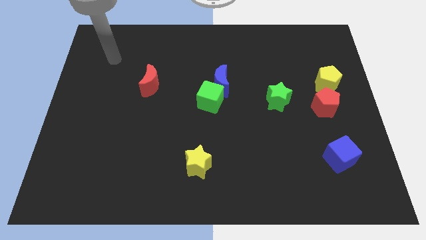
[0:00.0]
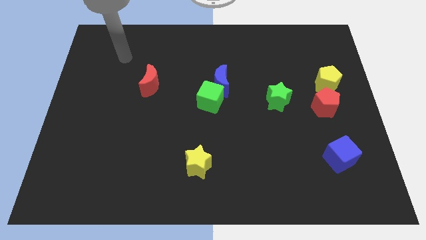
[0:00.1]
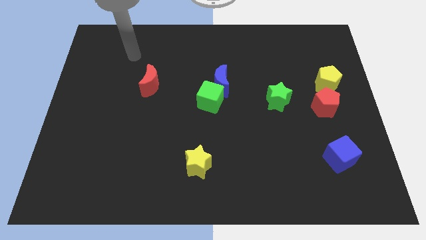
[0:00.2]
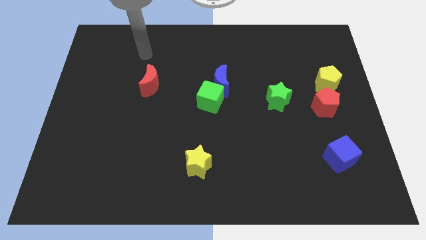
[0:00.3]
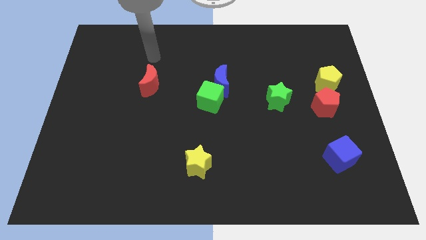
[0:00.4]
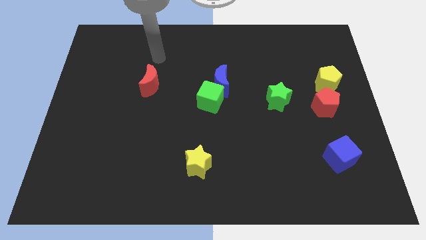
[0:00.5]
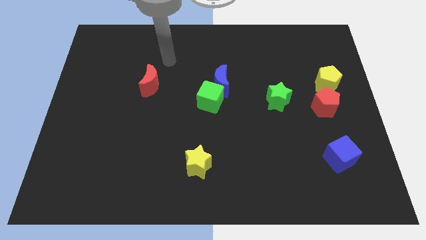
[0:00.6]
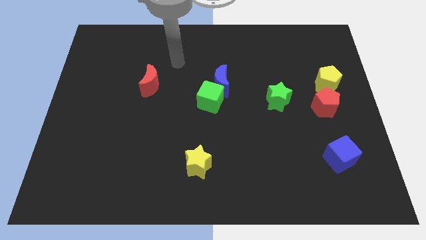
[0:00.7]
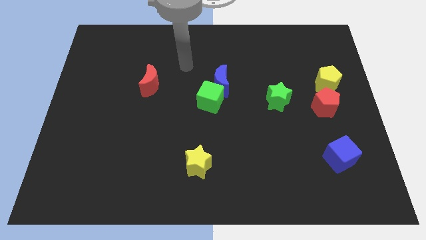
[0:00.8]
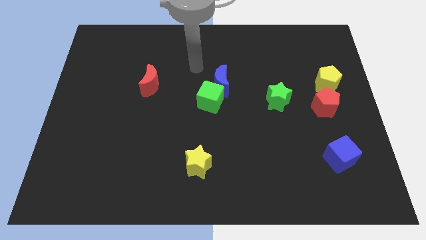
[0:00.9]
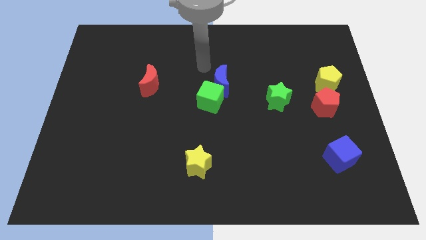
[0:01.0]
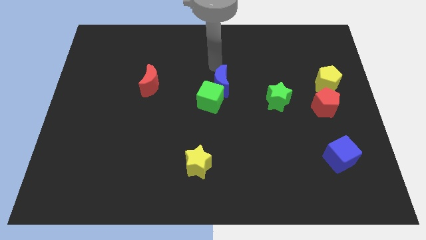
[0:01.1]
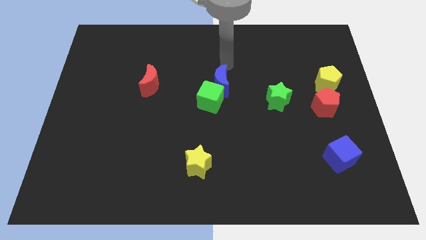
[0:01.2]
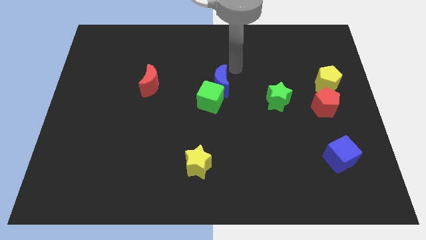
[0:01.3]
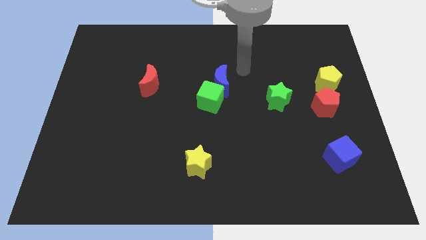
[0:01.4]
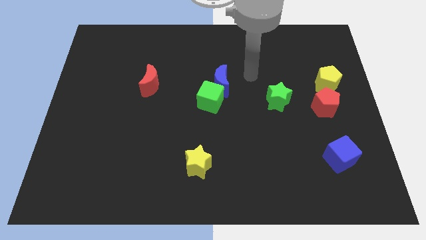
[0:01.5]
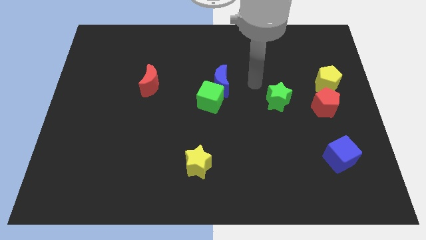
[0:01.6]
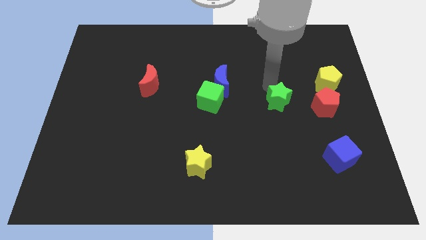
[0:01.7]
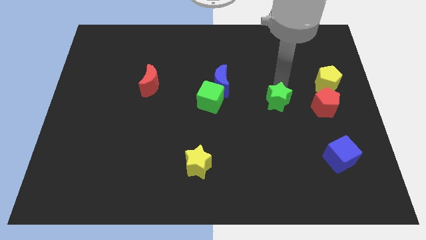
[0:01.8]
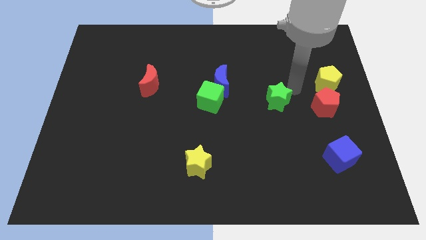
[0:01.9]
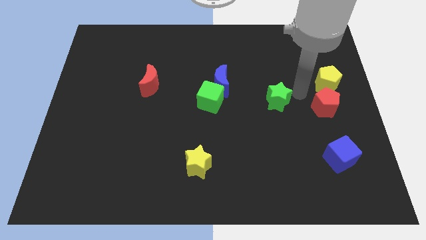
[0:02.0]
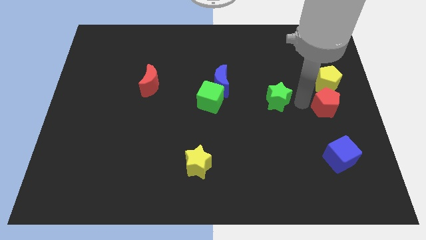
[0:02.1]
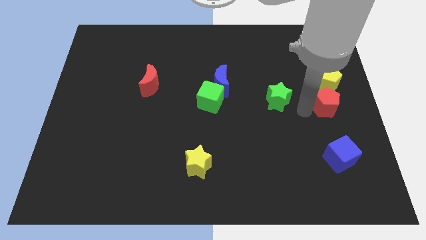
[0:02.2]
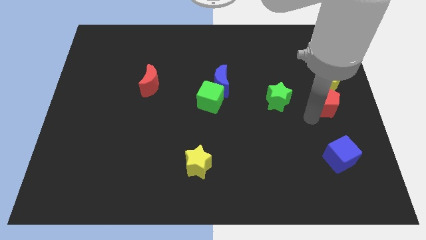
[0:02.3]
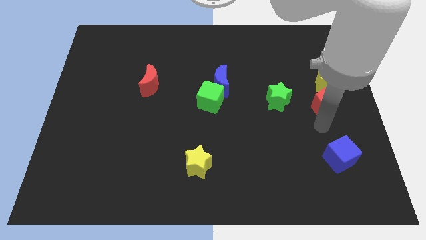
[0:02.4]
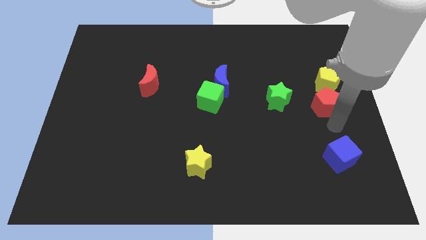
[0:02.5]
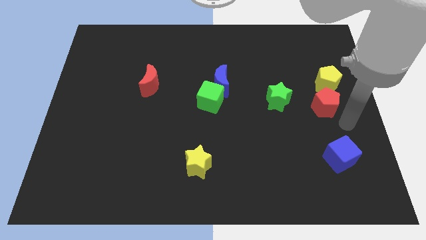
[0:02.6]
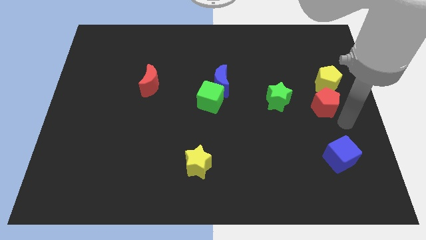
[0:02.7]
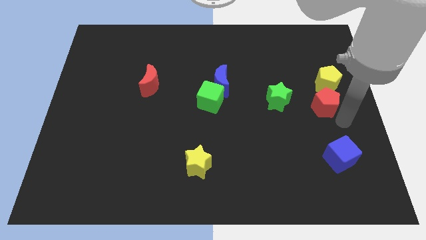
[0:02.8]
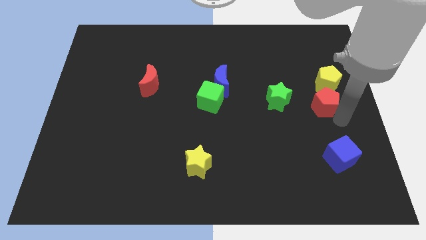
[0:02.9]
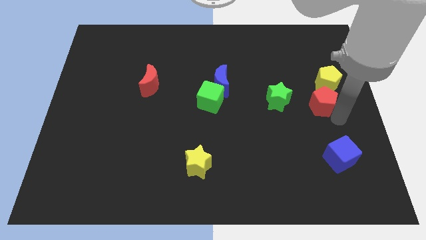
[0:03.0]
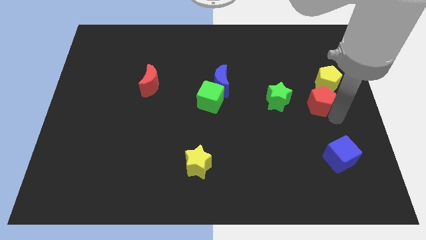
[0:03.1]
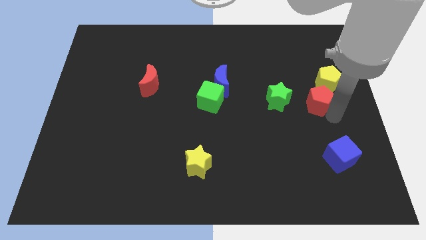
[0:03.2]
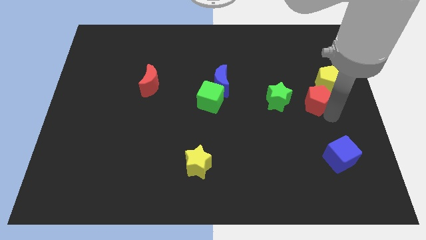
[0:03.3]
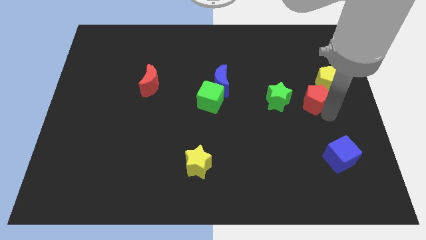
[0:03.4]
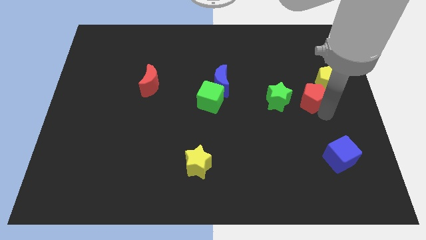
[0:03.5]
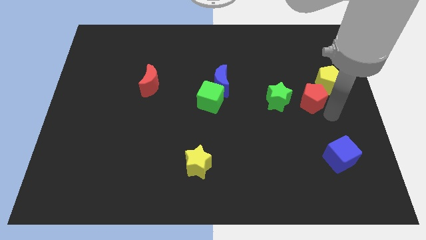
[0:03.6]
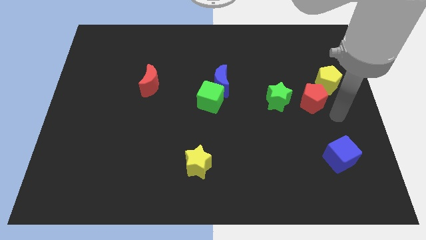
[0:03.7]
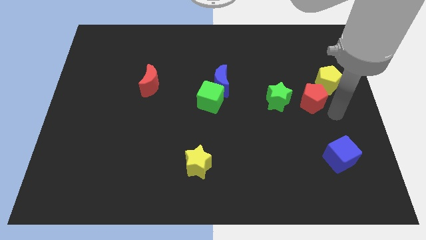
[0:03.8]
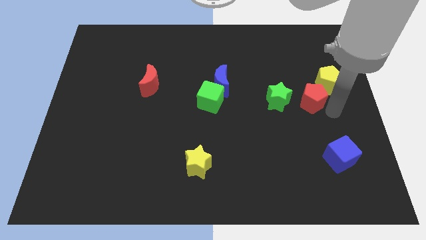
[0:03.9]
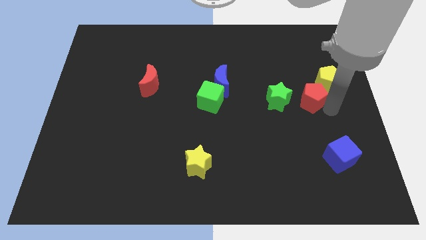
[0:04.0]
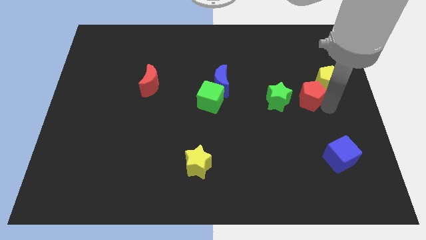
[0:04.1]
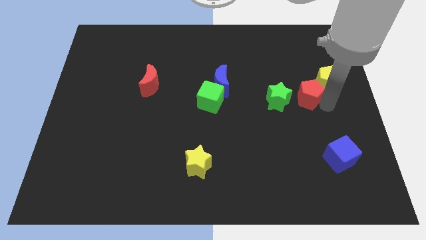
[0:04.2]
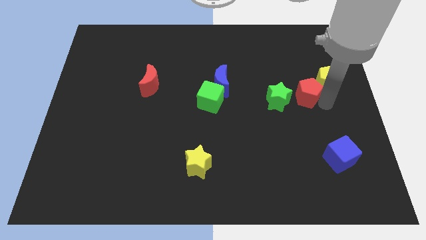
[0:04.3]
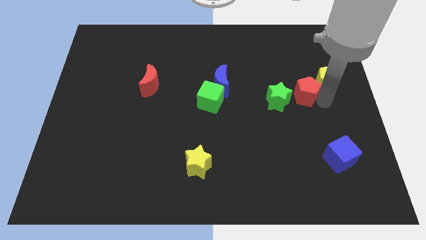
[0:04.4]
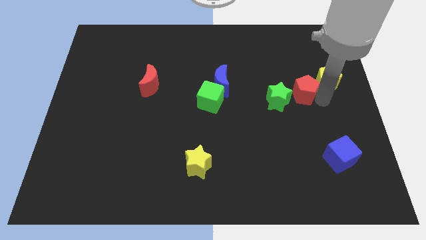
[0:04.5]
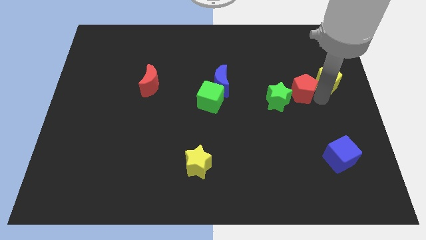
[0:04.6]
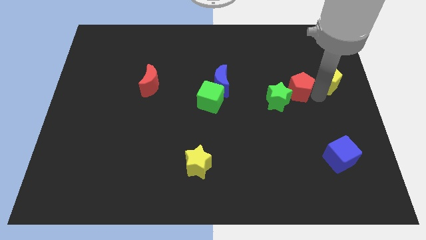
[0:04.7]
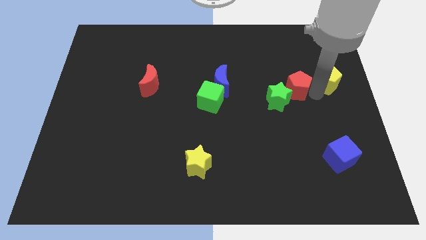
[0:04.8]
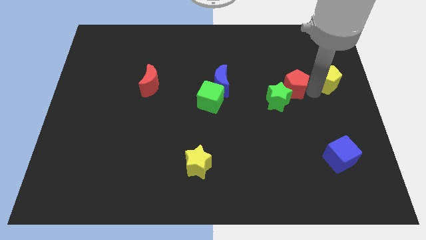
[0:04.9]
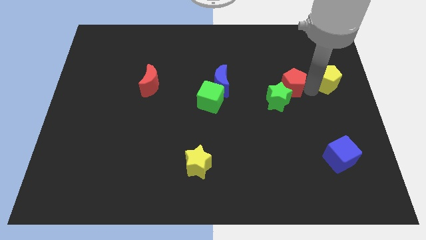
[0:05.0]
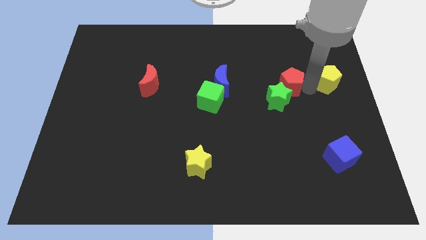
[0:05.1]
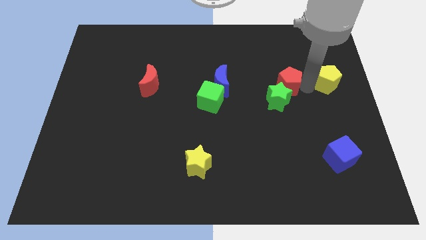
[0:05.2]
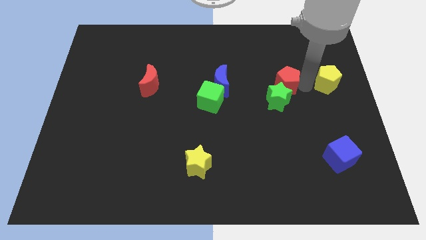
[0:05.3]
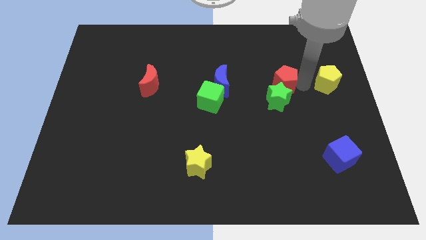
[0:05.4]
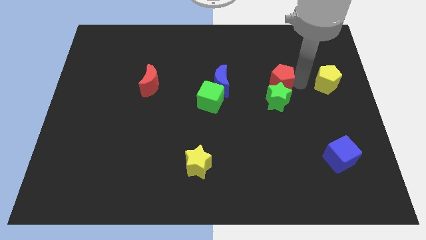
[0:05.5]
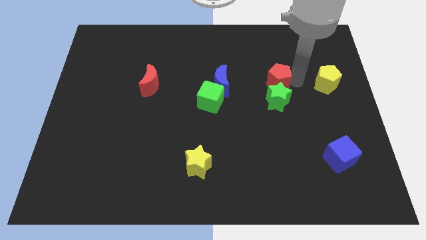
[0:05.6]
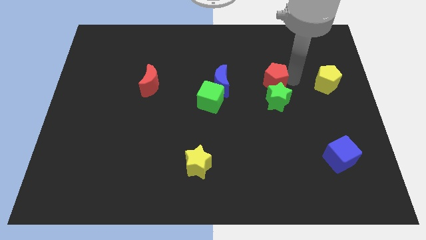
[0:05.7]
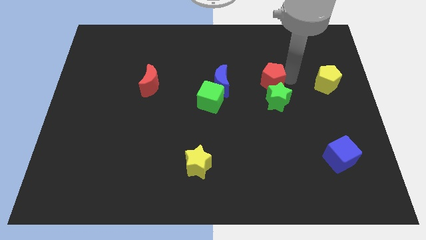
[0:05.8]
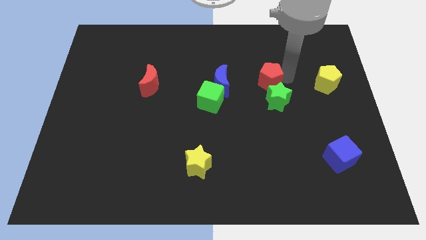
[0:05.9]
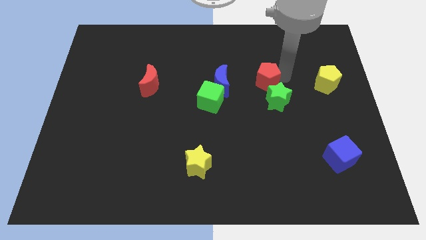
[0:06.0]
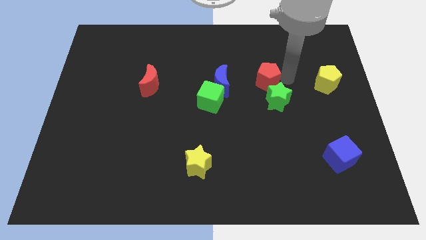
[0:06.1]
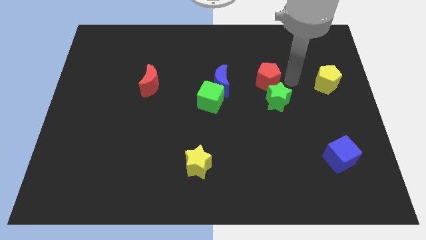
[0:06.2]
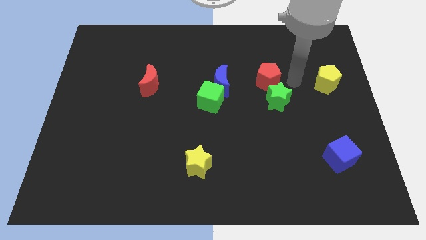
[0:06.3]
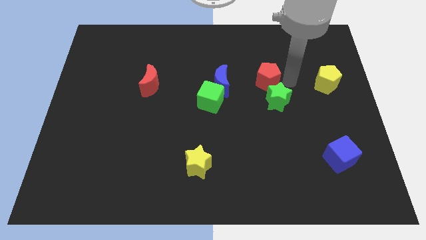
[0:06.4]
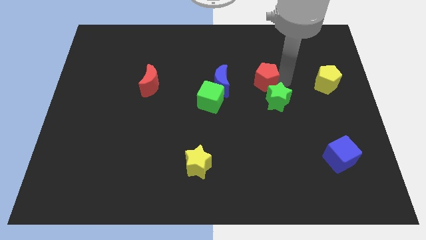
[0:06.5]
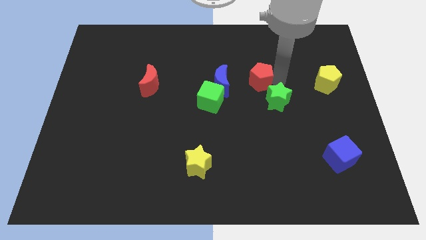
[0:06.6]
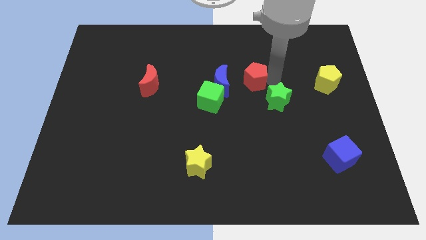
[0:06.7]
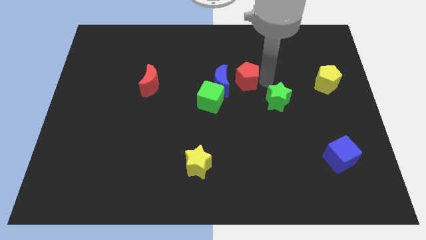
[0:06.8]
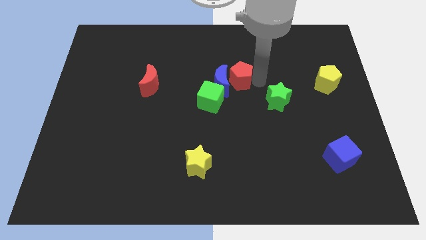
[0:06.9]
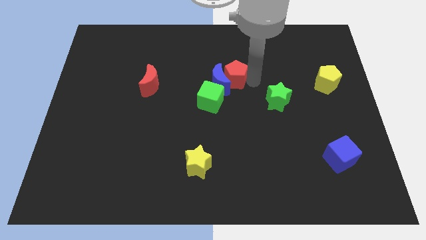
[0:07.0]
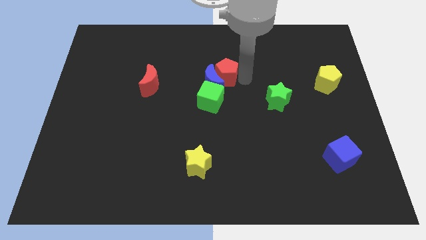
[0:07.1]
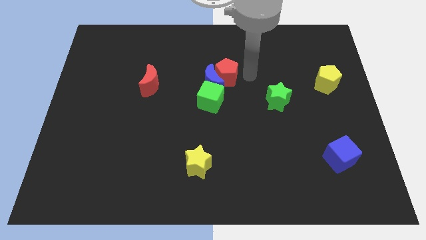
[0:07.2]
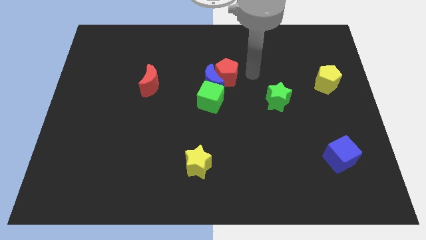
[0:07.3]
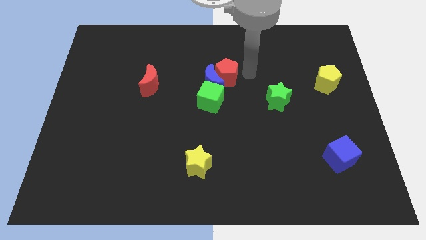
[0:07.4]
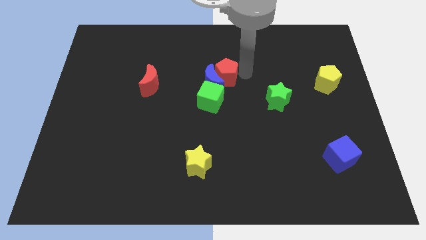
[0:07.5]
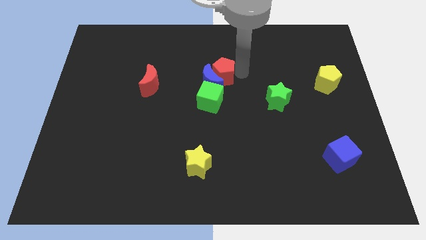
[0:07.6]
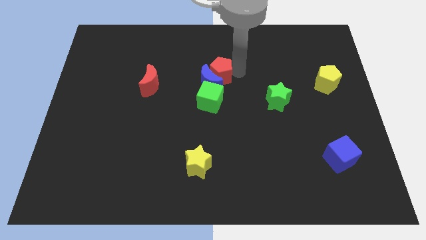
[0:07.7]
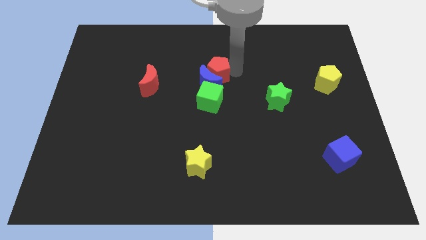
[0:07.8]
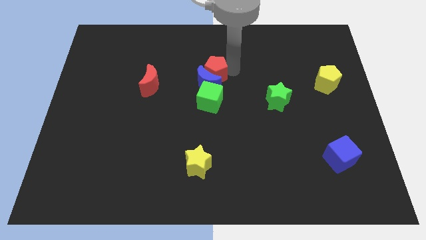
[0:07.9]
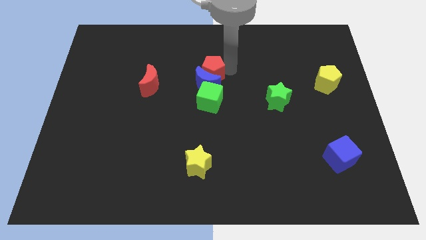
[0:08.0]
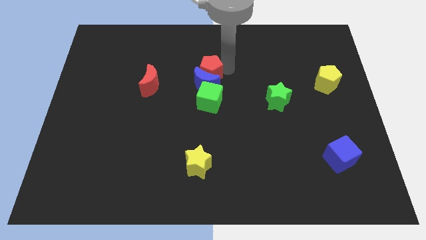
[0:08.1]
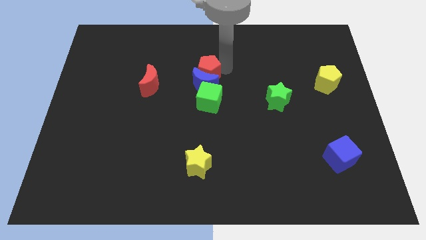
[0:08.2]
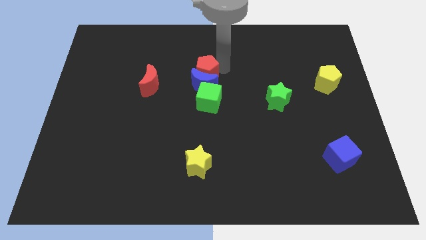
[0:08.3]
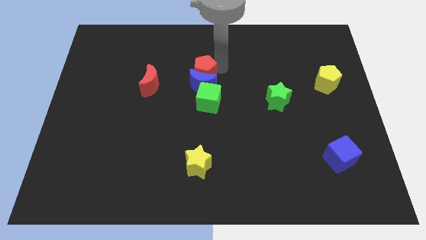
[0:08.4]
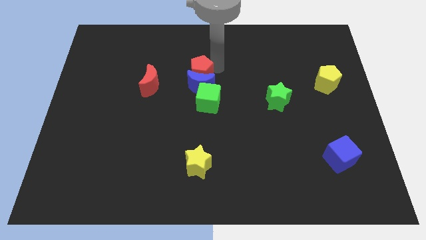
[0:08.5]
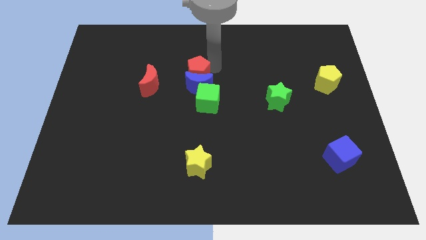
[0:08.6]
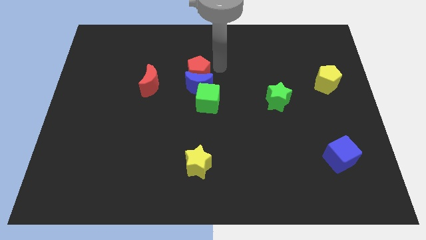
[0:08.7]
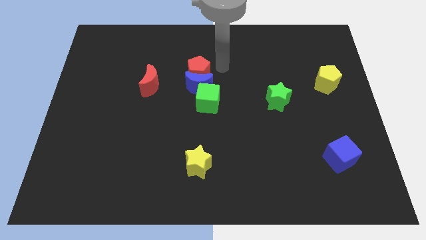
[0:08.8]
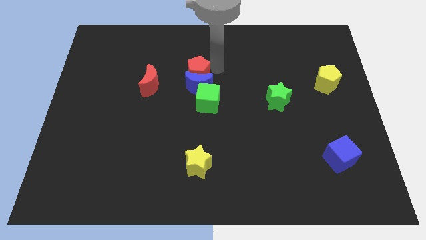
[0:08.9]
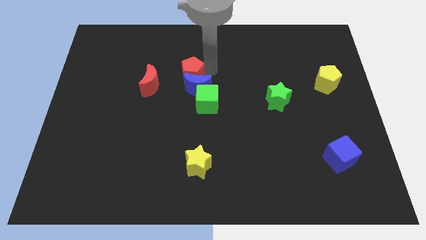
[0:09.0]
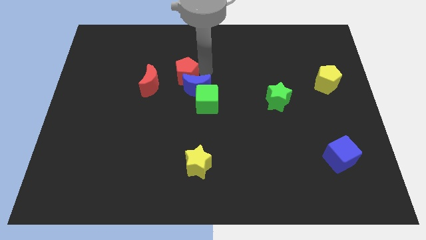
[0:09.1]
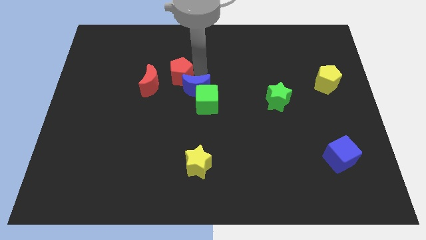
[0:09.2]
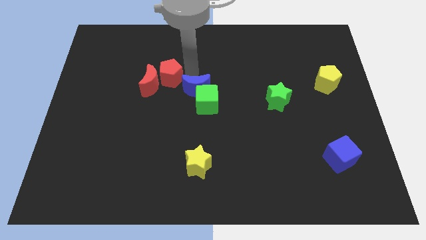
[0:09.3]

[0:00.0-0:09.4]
move the red pentagon next to the red moon
